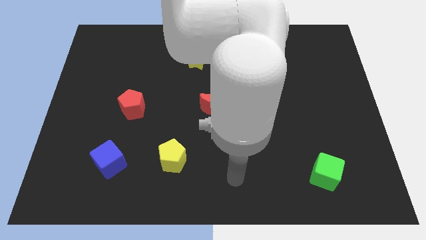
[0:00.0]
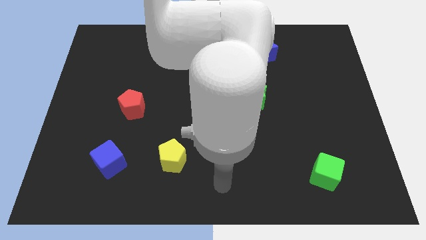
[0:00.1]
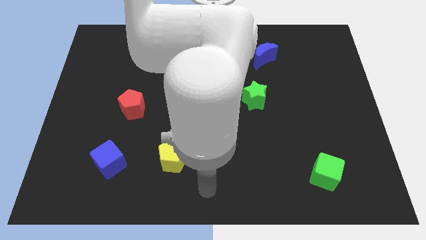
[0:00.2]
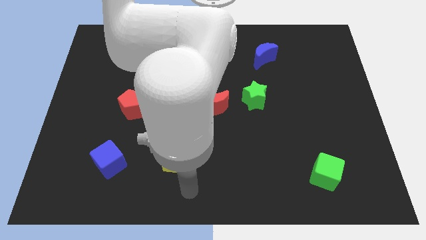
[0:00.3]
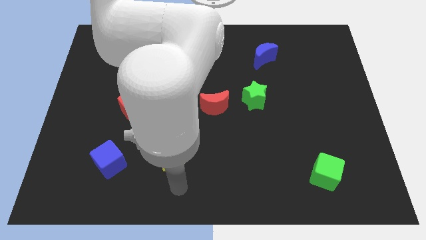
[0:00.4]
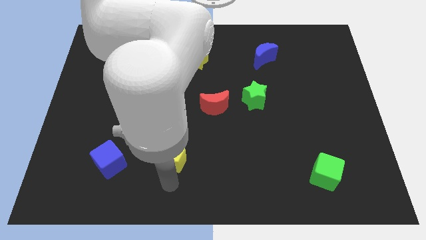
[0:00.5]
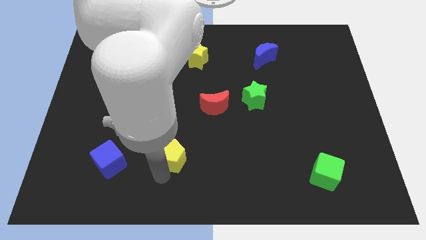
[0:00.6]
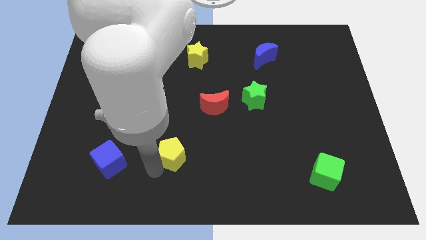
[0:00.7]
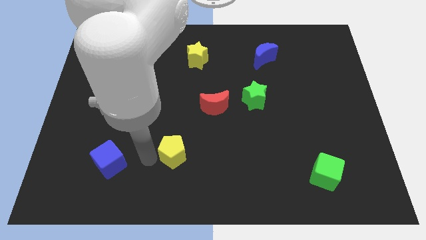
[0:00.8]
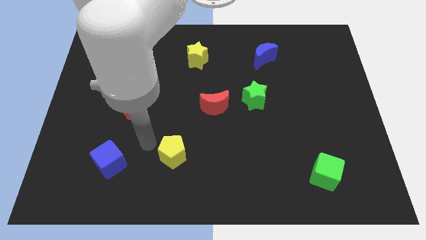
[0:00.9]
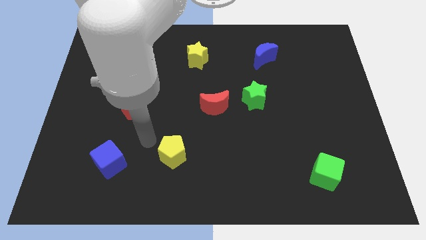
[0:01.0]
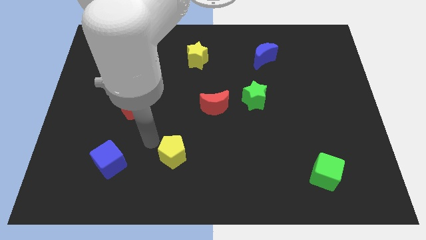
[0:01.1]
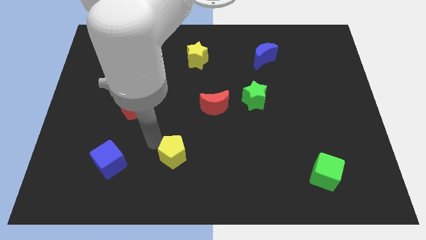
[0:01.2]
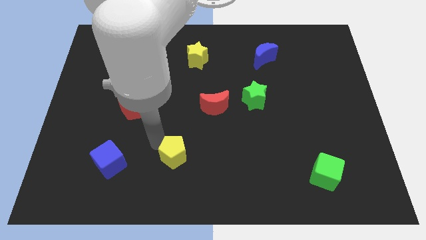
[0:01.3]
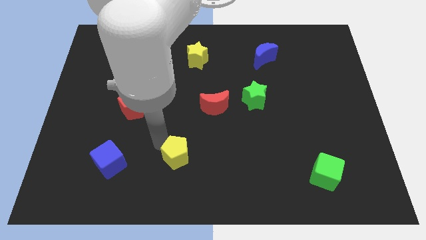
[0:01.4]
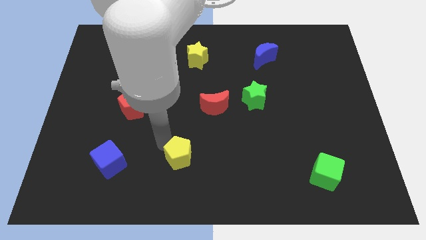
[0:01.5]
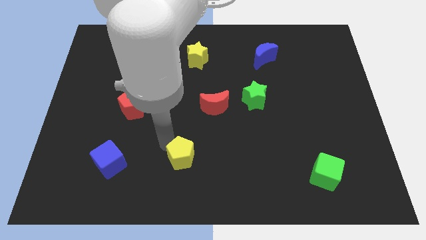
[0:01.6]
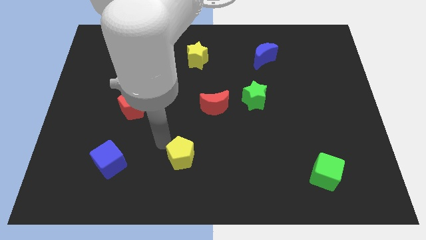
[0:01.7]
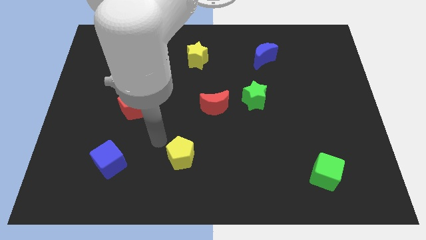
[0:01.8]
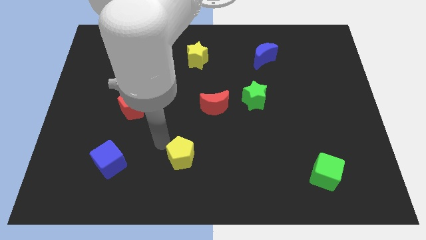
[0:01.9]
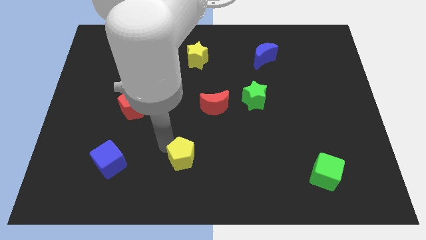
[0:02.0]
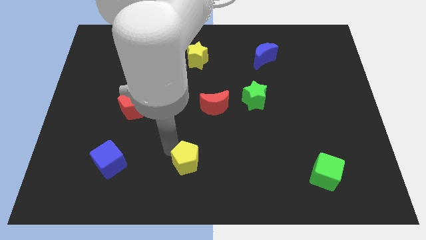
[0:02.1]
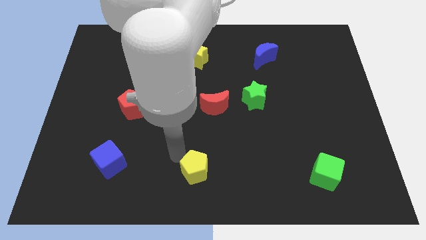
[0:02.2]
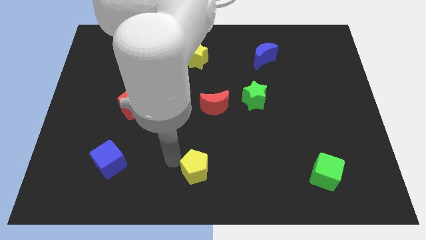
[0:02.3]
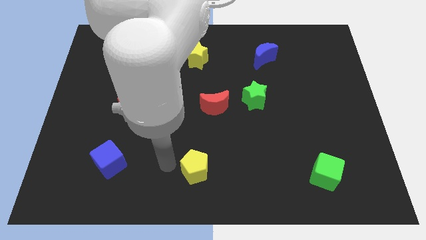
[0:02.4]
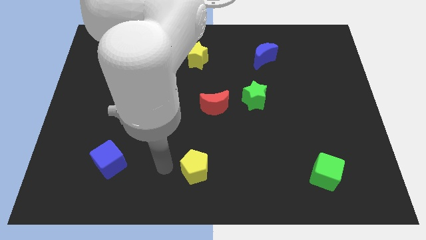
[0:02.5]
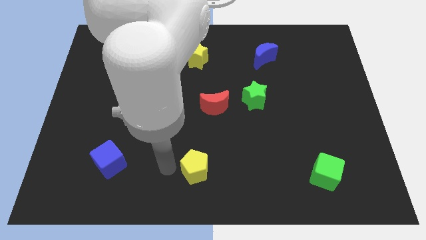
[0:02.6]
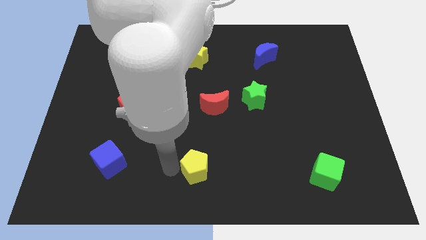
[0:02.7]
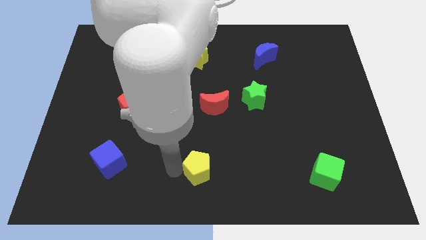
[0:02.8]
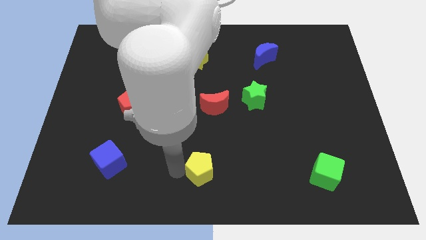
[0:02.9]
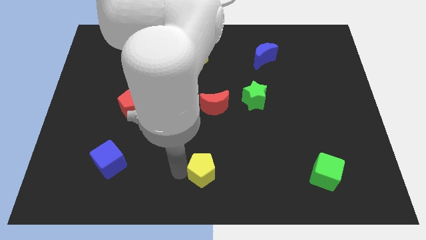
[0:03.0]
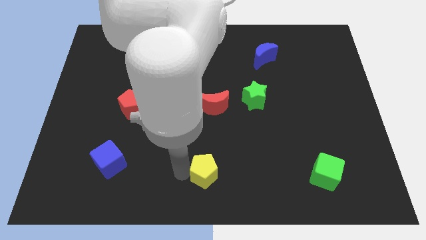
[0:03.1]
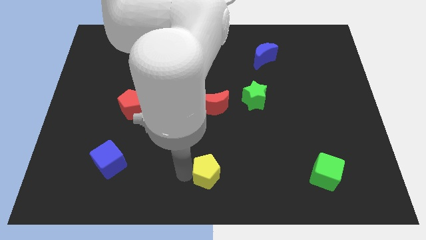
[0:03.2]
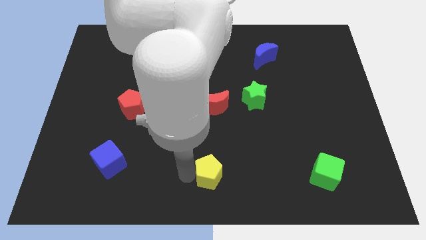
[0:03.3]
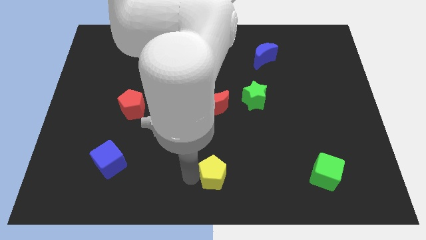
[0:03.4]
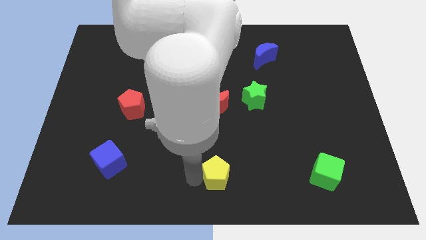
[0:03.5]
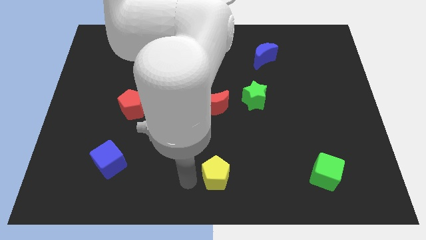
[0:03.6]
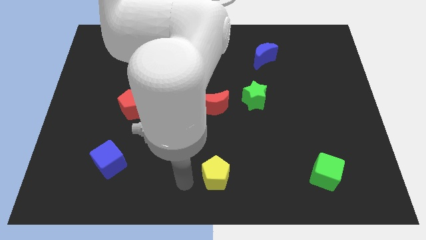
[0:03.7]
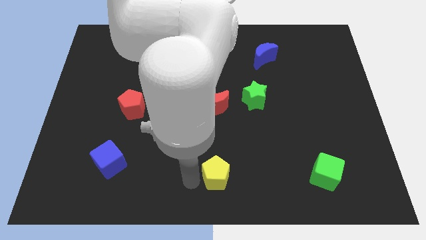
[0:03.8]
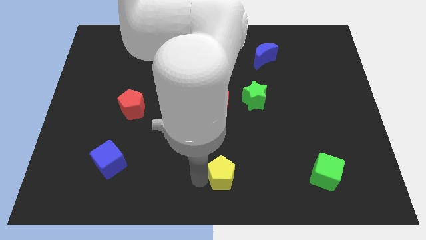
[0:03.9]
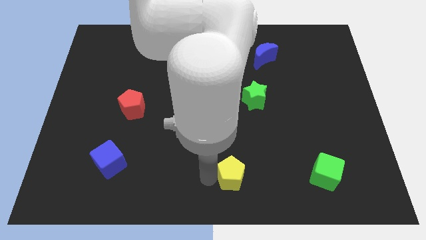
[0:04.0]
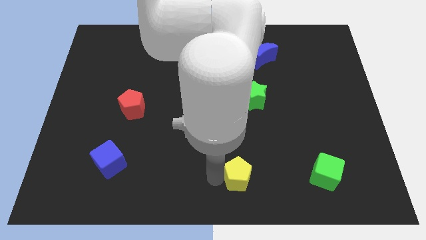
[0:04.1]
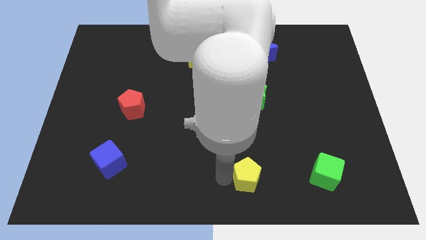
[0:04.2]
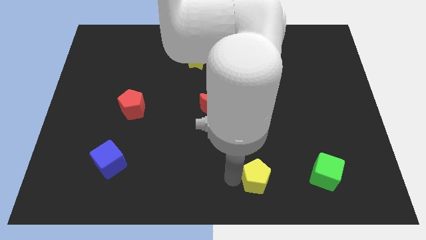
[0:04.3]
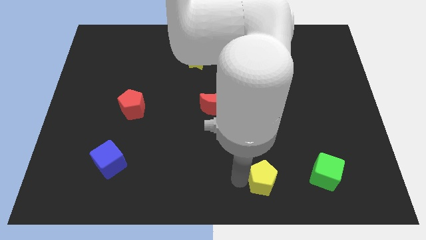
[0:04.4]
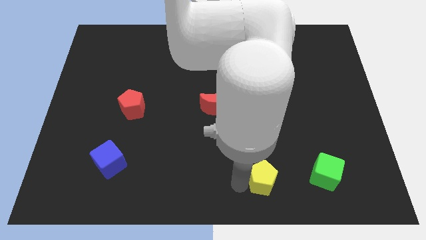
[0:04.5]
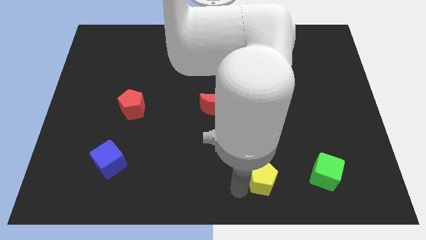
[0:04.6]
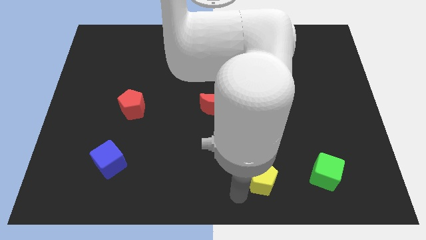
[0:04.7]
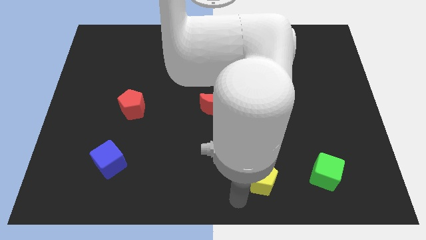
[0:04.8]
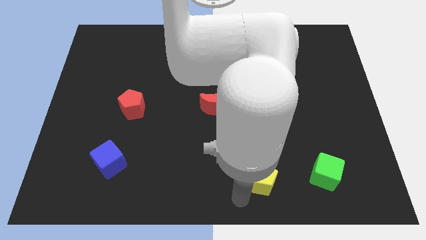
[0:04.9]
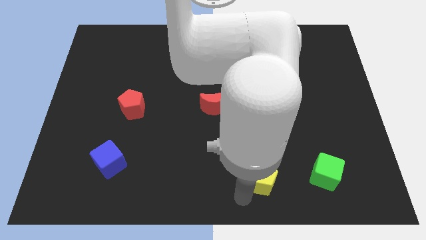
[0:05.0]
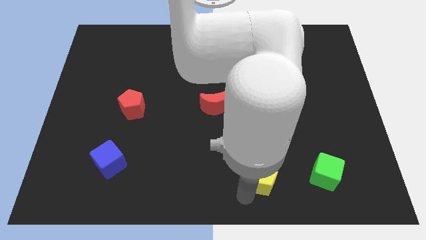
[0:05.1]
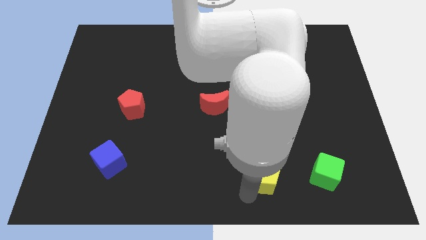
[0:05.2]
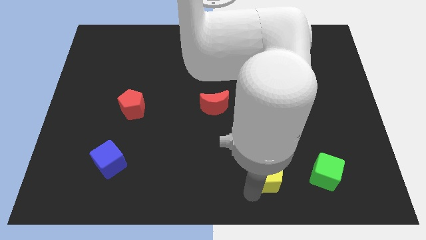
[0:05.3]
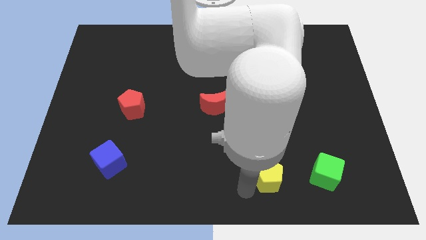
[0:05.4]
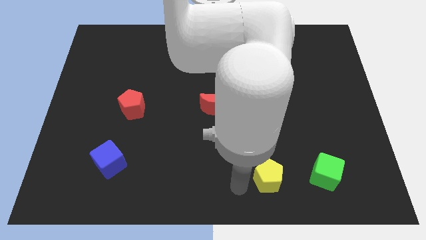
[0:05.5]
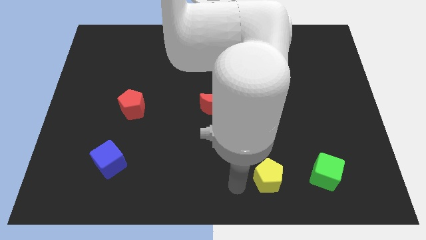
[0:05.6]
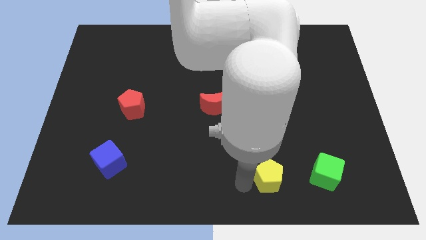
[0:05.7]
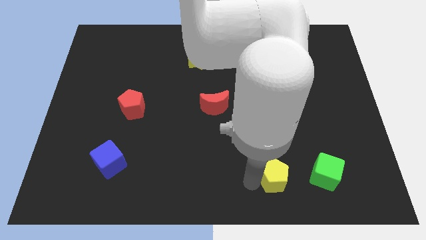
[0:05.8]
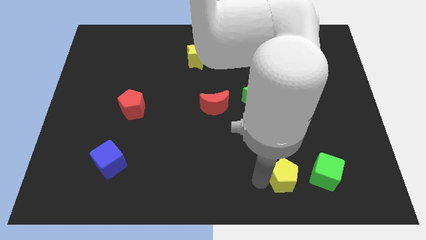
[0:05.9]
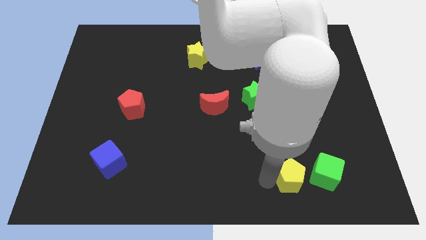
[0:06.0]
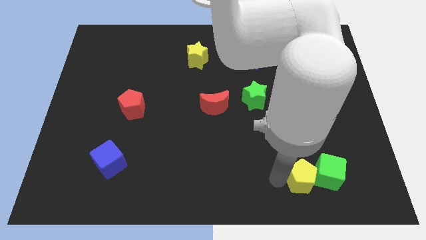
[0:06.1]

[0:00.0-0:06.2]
push the yellow pentagon to the green cube

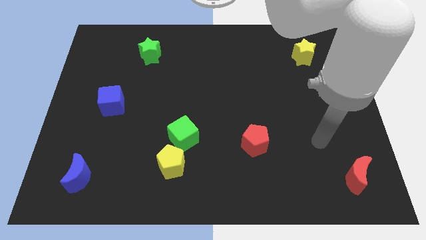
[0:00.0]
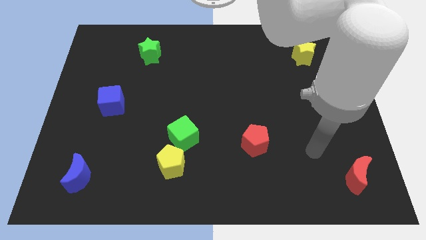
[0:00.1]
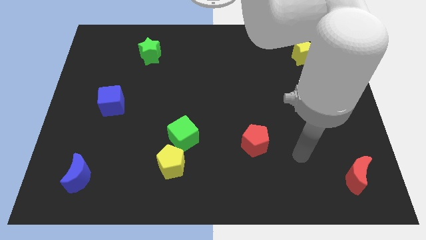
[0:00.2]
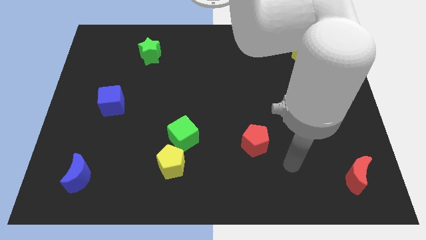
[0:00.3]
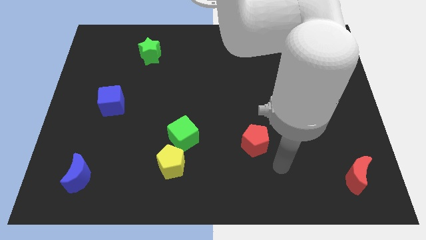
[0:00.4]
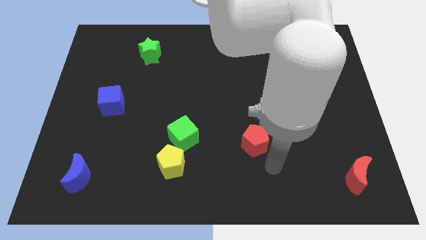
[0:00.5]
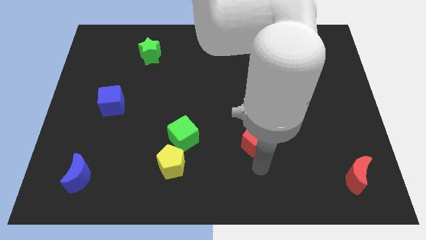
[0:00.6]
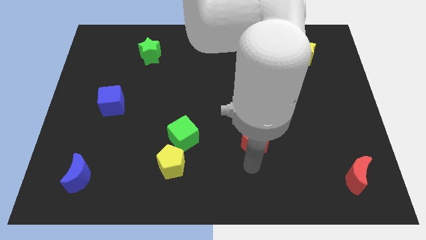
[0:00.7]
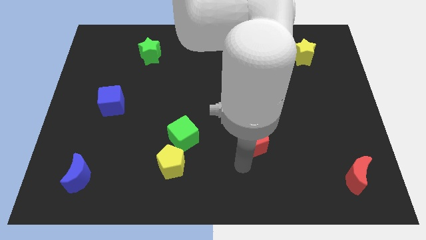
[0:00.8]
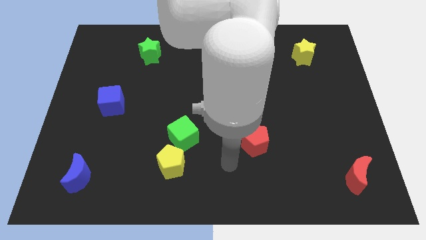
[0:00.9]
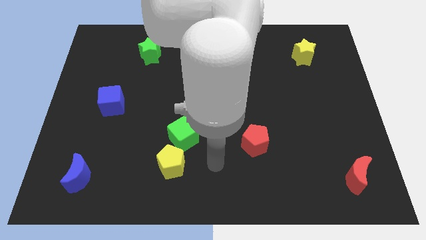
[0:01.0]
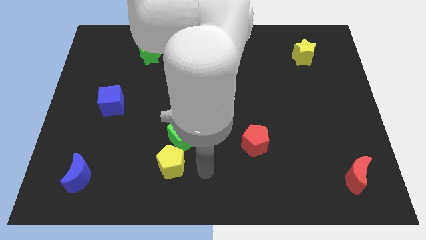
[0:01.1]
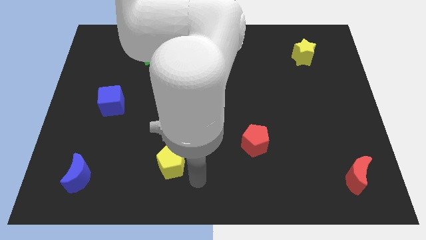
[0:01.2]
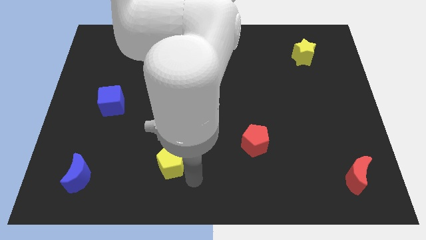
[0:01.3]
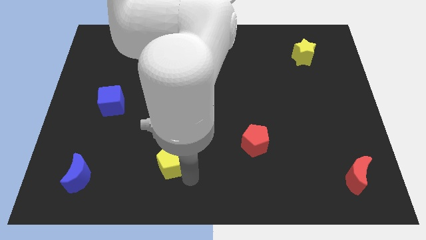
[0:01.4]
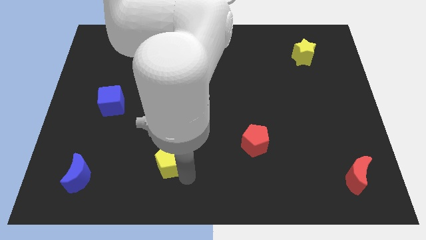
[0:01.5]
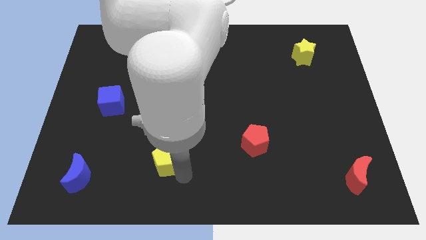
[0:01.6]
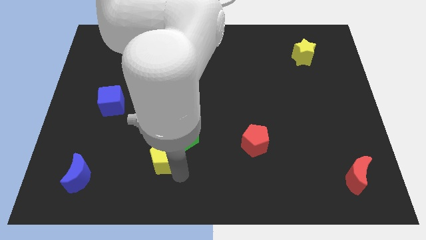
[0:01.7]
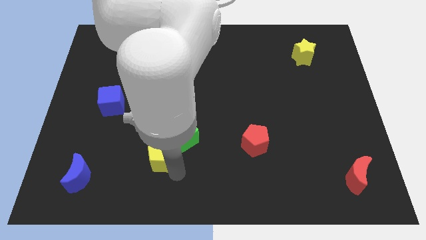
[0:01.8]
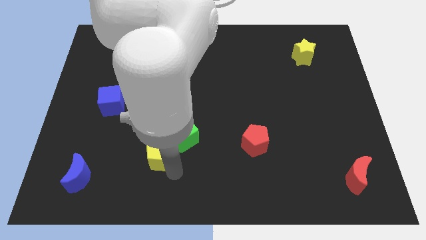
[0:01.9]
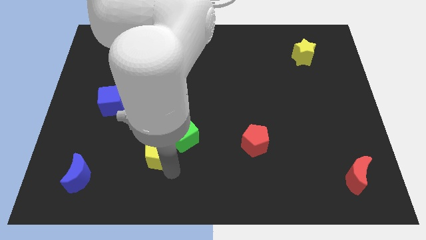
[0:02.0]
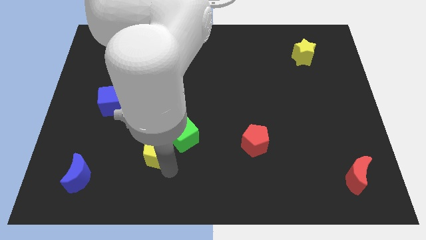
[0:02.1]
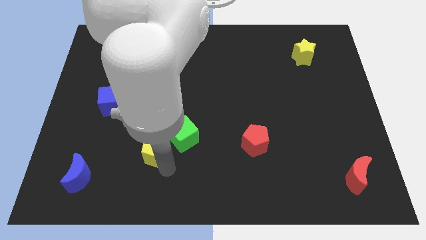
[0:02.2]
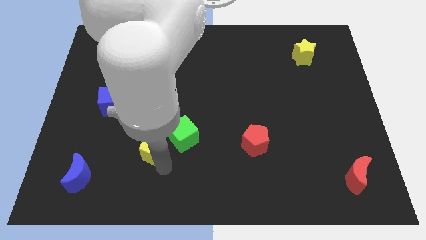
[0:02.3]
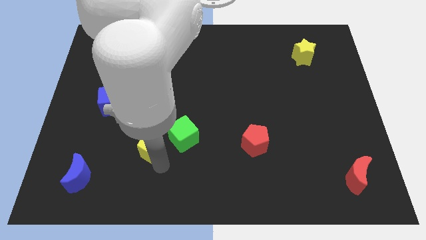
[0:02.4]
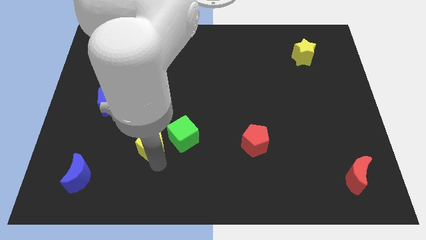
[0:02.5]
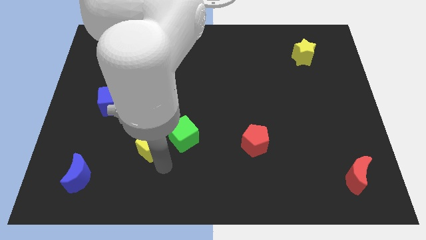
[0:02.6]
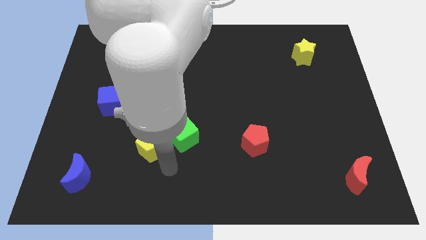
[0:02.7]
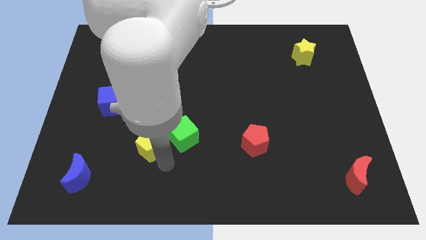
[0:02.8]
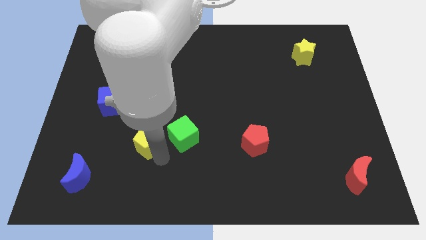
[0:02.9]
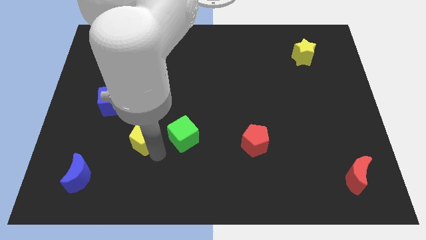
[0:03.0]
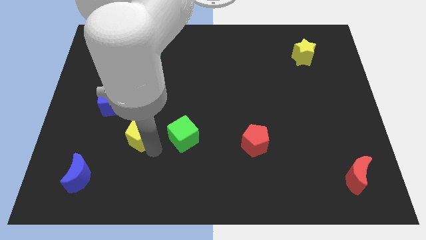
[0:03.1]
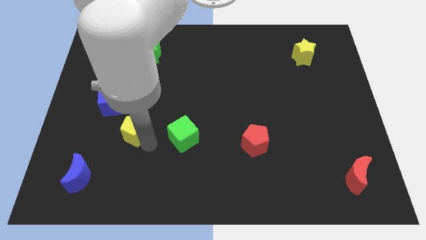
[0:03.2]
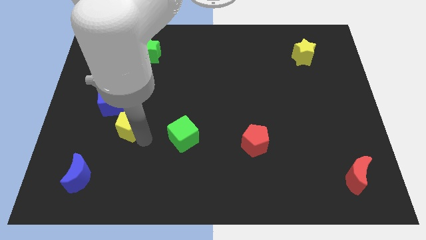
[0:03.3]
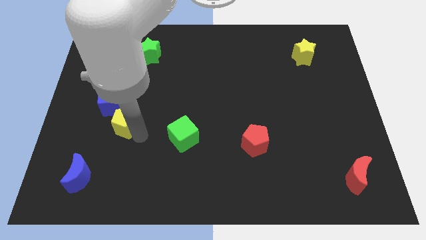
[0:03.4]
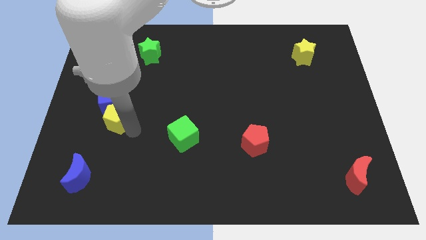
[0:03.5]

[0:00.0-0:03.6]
move the yellow pentagon next to the blue cube
